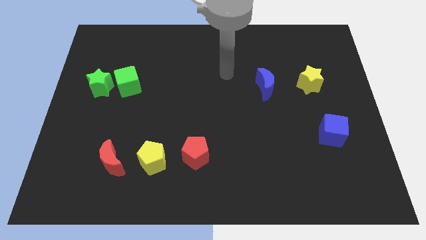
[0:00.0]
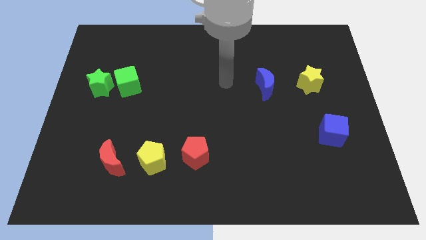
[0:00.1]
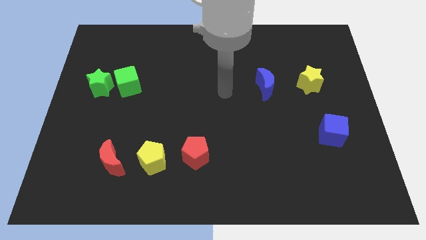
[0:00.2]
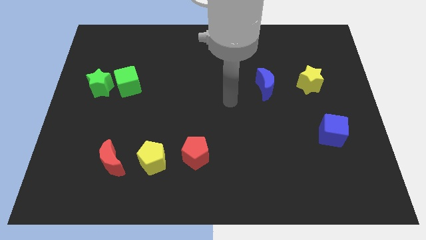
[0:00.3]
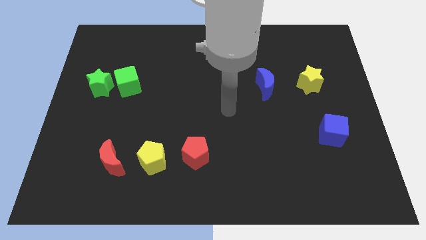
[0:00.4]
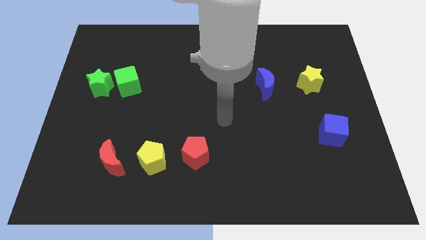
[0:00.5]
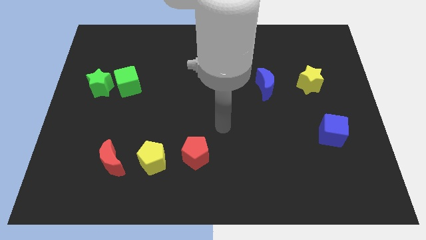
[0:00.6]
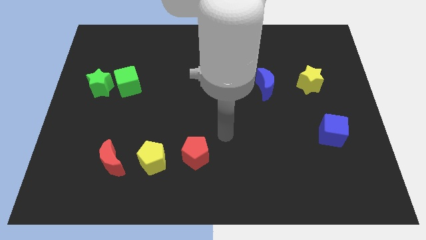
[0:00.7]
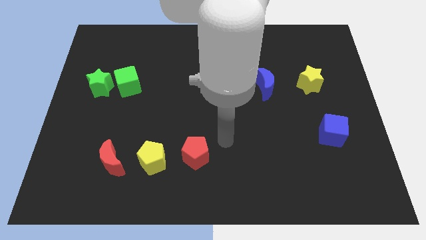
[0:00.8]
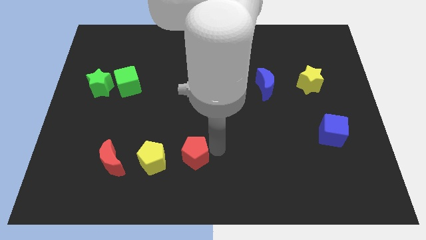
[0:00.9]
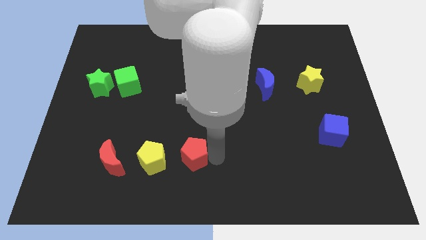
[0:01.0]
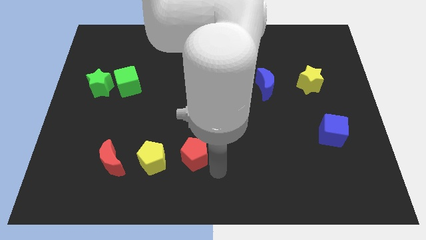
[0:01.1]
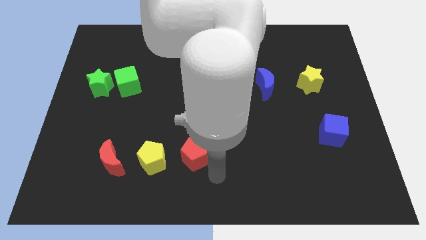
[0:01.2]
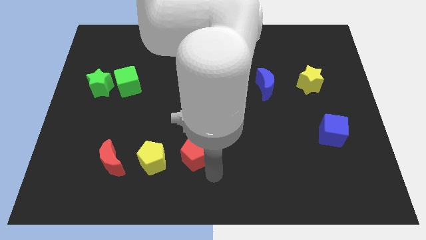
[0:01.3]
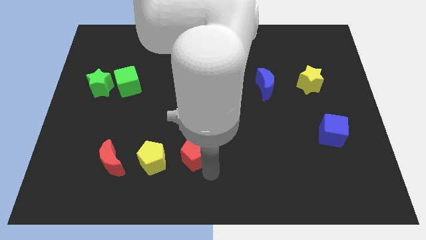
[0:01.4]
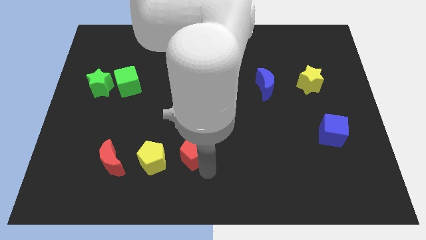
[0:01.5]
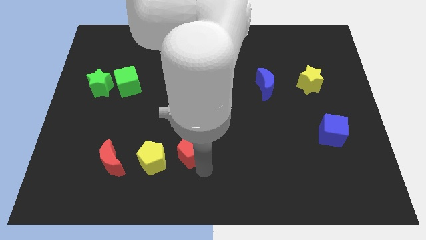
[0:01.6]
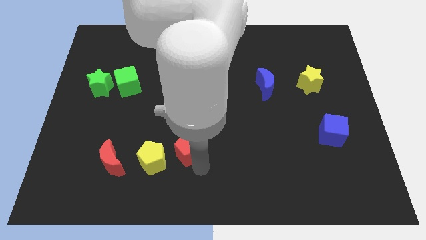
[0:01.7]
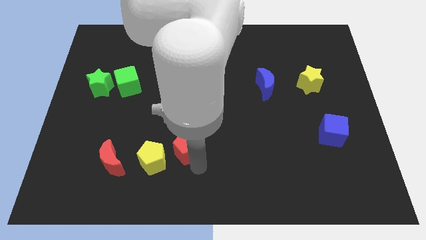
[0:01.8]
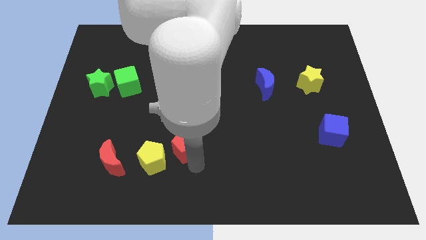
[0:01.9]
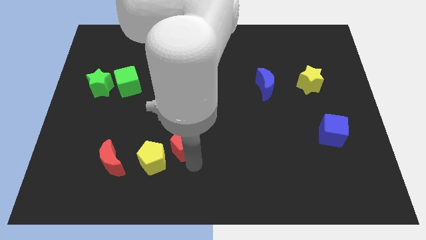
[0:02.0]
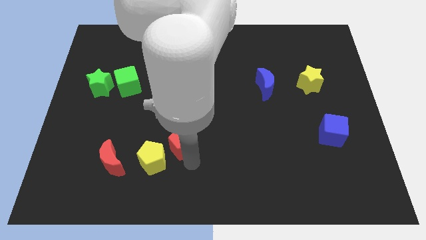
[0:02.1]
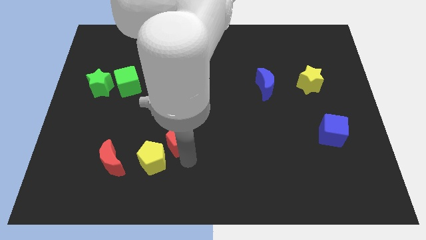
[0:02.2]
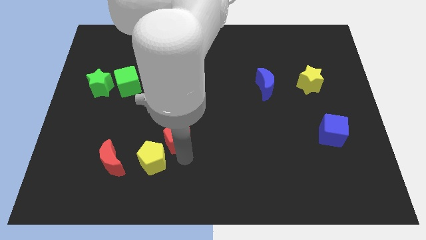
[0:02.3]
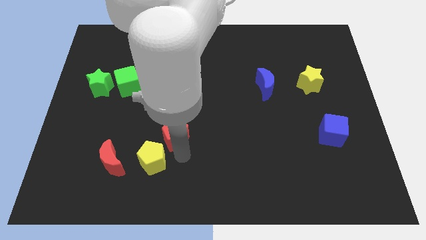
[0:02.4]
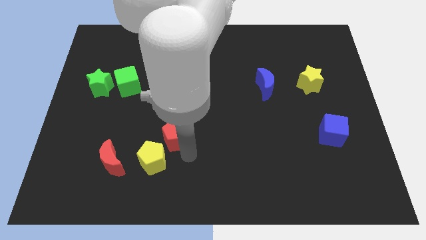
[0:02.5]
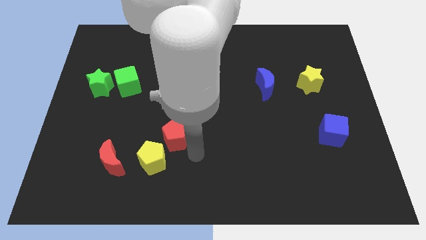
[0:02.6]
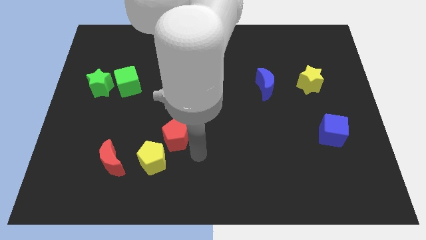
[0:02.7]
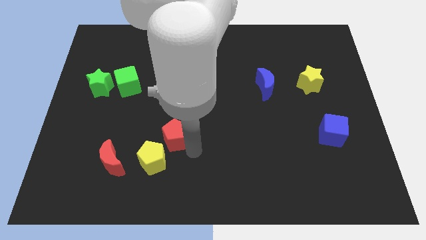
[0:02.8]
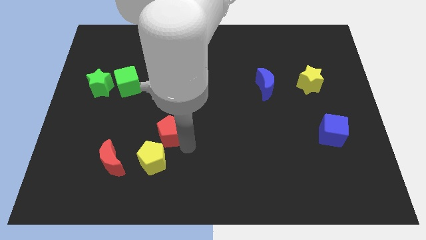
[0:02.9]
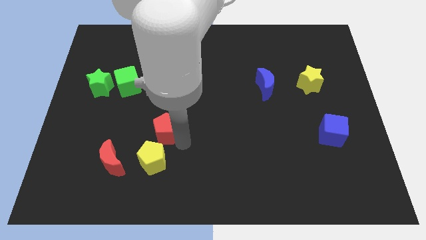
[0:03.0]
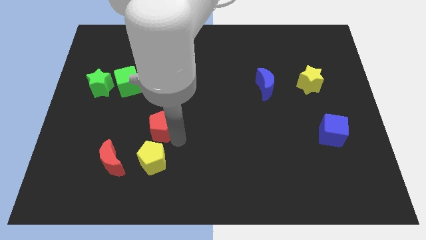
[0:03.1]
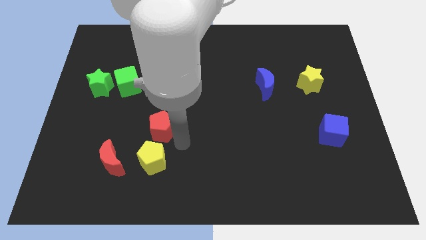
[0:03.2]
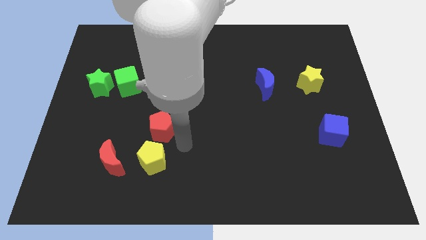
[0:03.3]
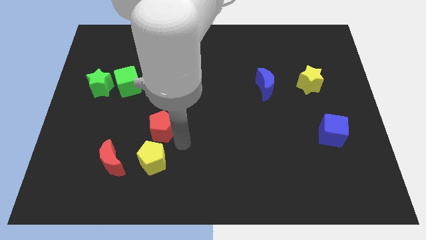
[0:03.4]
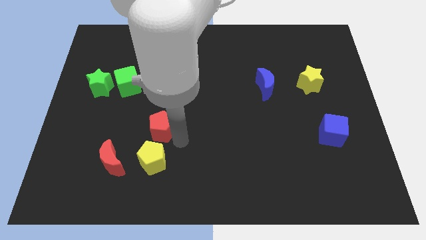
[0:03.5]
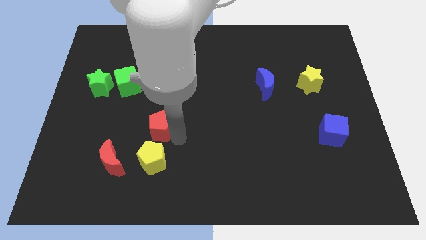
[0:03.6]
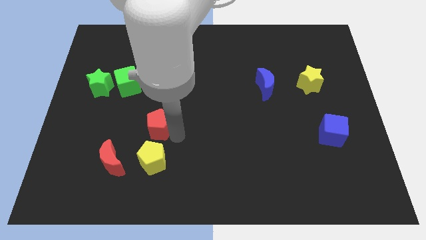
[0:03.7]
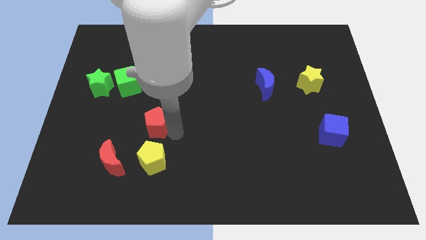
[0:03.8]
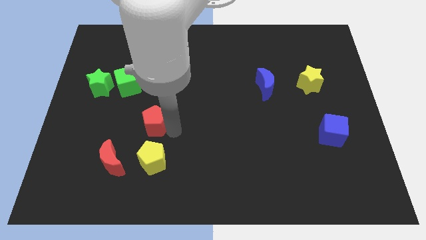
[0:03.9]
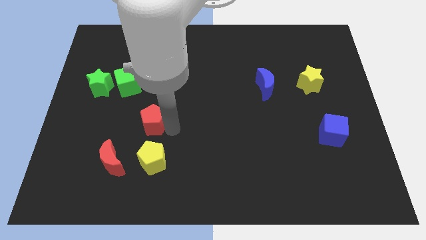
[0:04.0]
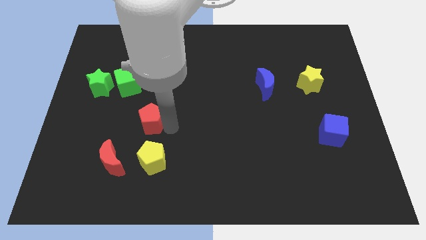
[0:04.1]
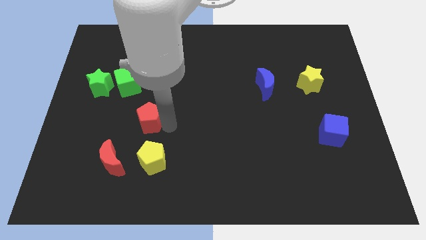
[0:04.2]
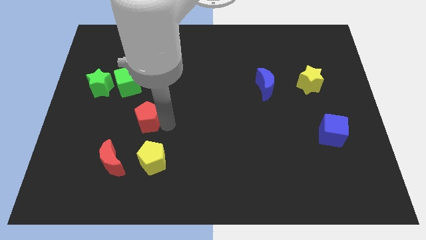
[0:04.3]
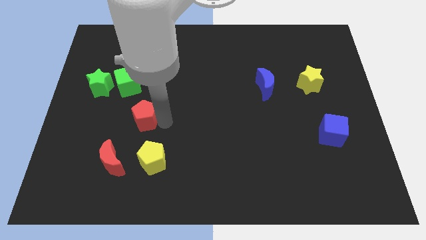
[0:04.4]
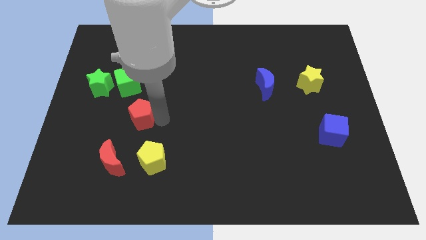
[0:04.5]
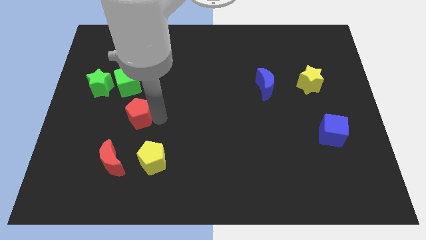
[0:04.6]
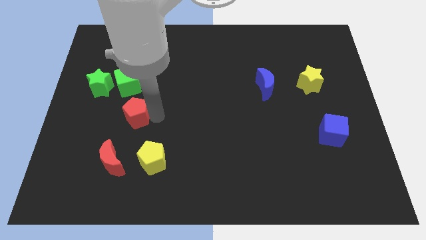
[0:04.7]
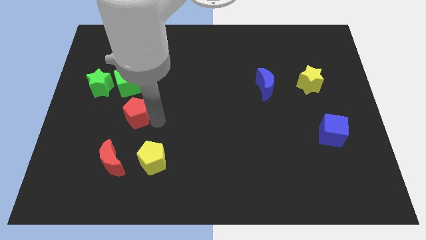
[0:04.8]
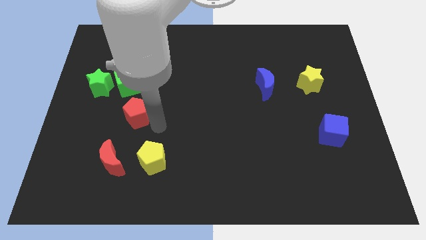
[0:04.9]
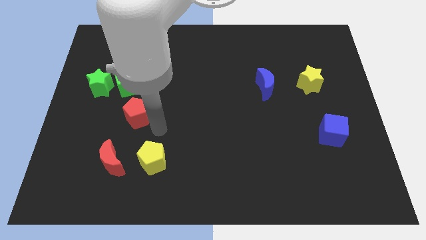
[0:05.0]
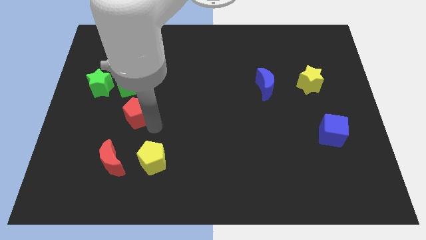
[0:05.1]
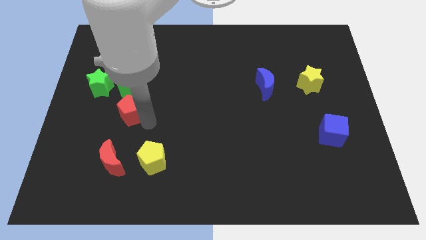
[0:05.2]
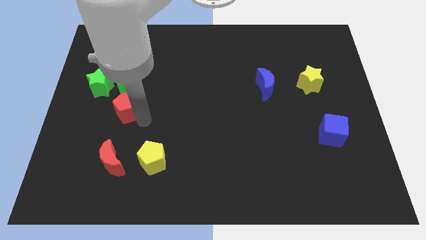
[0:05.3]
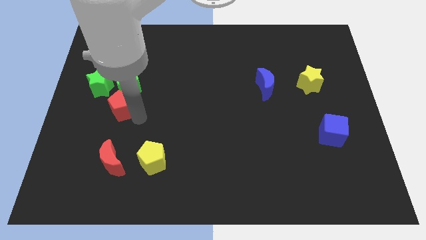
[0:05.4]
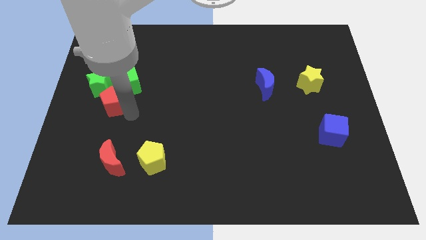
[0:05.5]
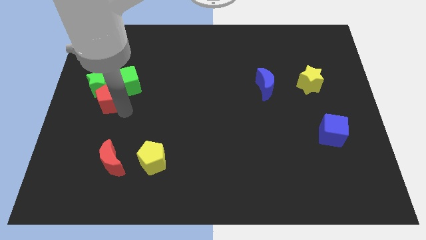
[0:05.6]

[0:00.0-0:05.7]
slide the red pentagon next to the green star

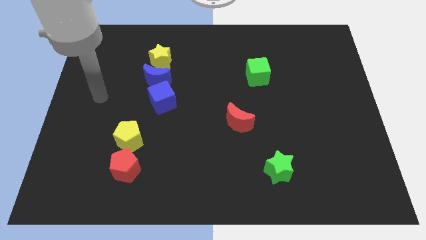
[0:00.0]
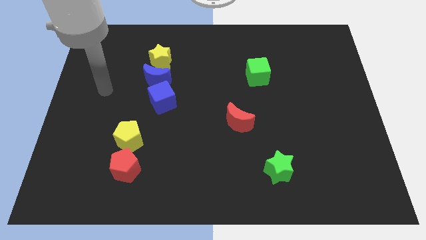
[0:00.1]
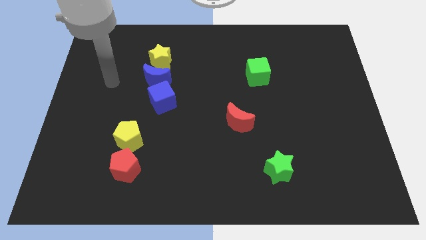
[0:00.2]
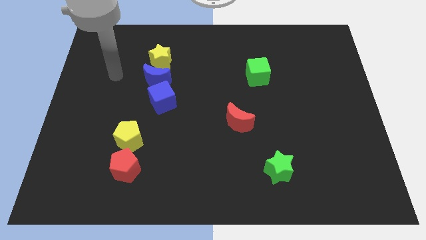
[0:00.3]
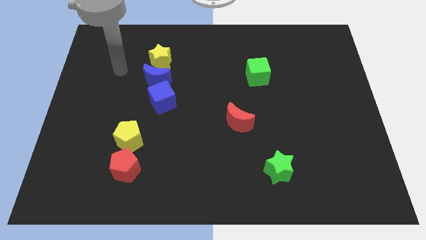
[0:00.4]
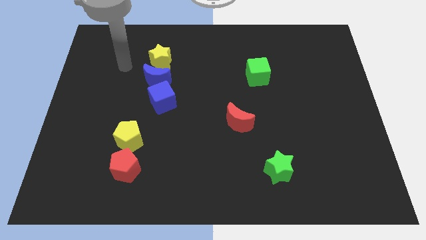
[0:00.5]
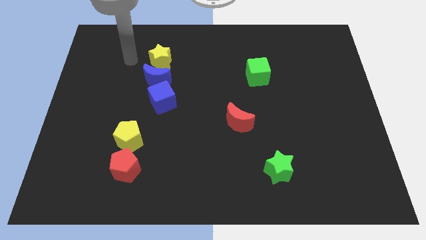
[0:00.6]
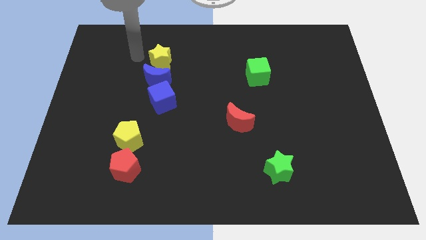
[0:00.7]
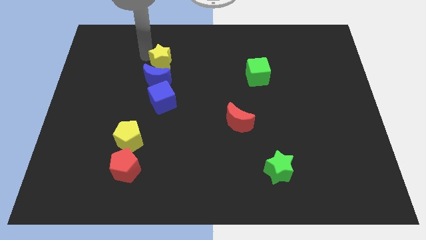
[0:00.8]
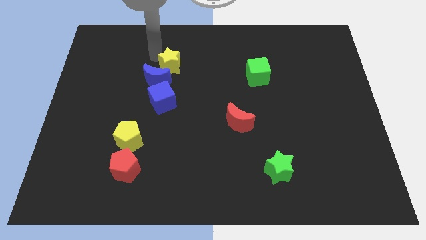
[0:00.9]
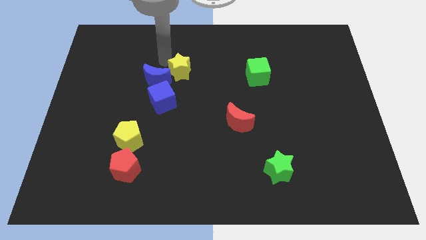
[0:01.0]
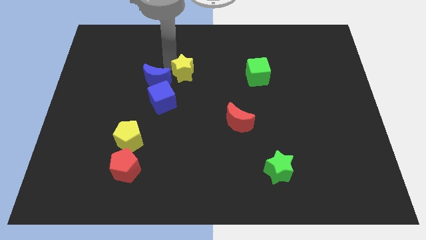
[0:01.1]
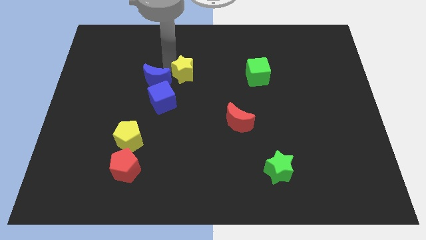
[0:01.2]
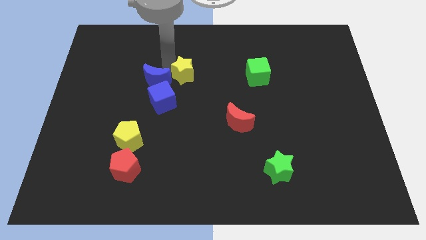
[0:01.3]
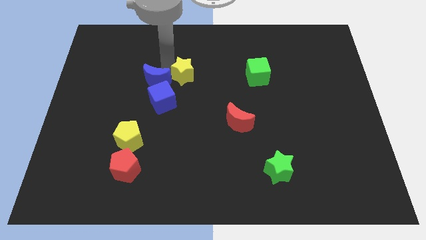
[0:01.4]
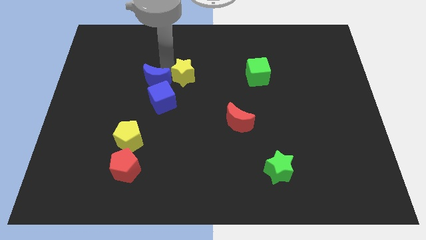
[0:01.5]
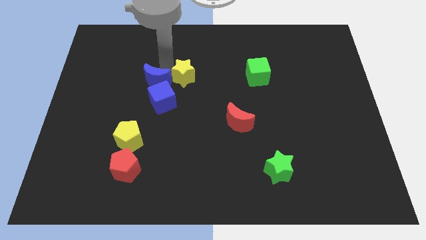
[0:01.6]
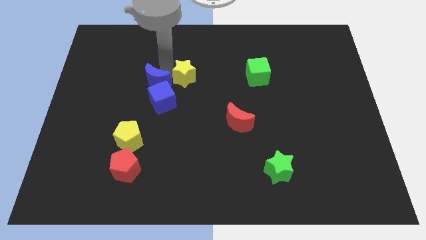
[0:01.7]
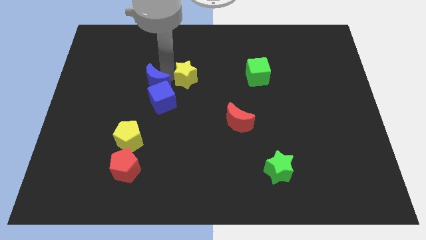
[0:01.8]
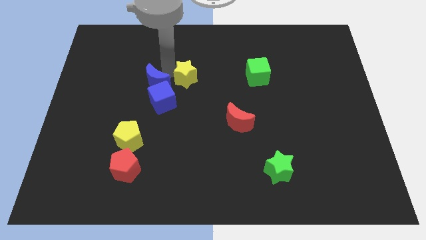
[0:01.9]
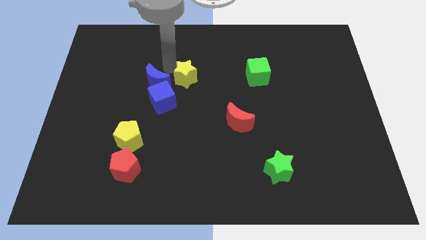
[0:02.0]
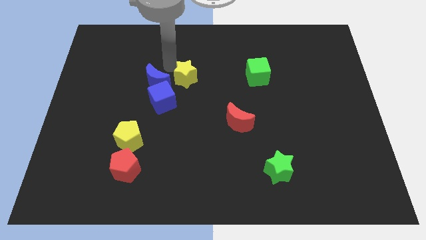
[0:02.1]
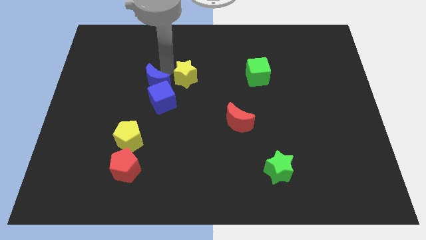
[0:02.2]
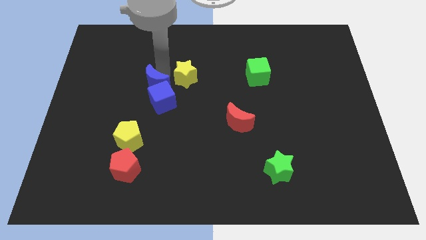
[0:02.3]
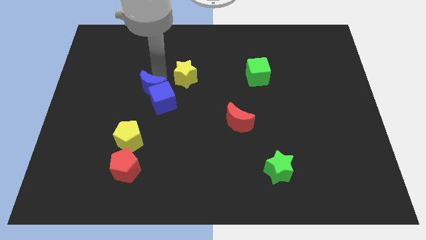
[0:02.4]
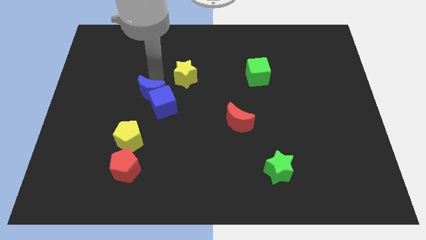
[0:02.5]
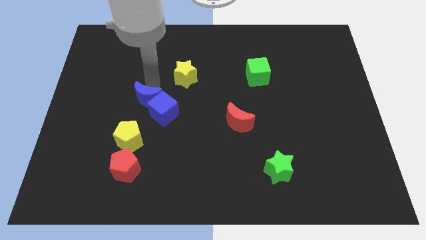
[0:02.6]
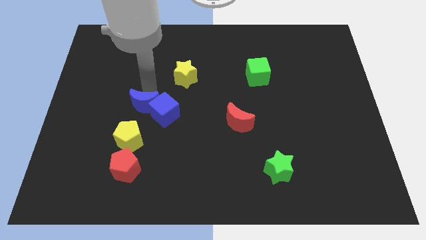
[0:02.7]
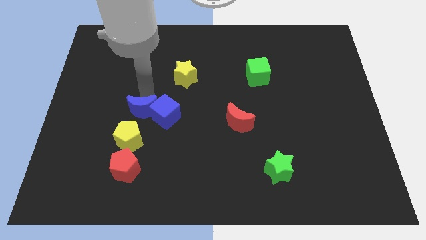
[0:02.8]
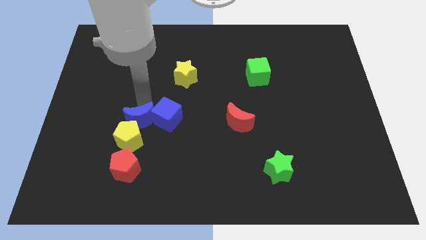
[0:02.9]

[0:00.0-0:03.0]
push the blue moon to the yellow pentagon
